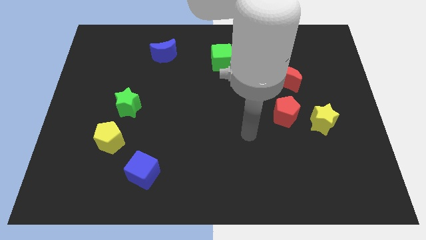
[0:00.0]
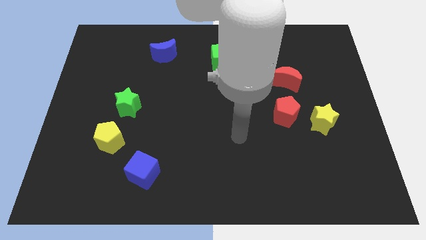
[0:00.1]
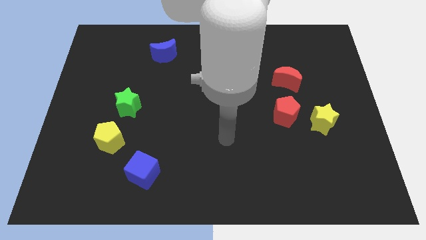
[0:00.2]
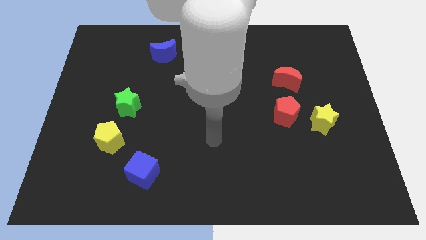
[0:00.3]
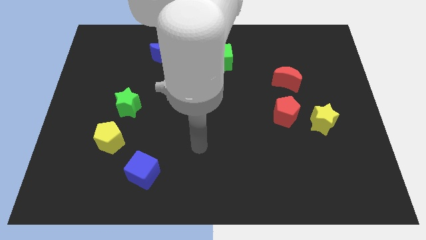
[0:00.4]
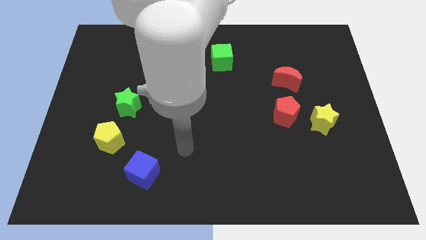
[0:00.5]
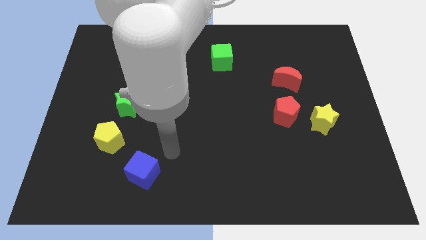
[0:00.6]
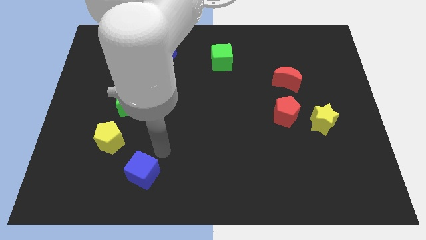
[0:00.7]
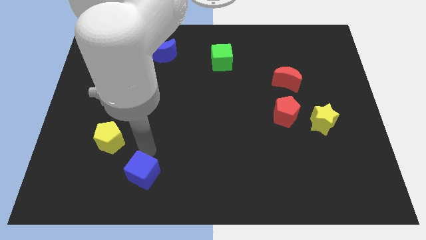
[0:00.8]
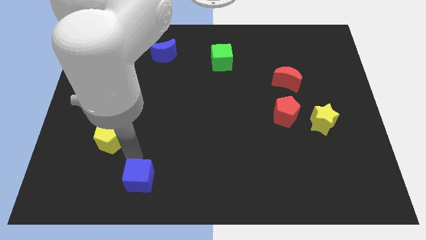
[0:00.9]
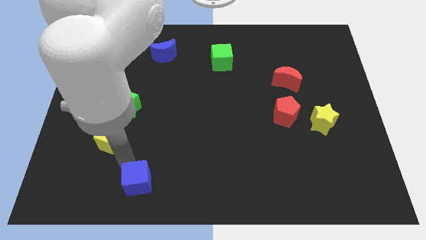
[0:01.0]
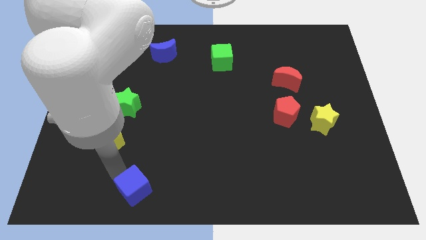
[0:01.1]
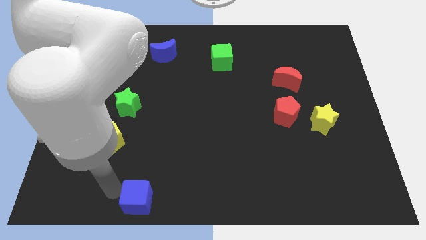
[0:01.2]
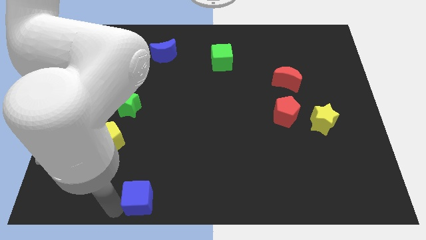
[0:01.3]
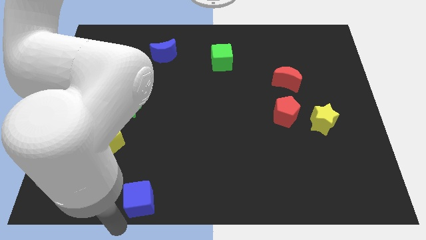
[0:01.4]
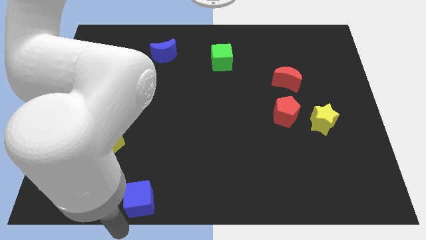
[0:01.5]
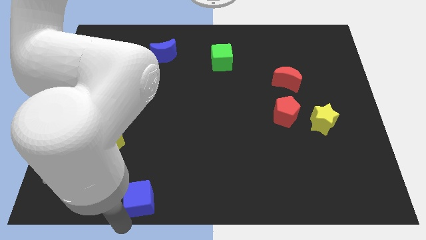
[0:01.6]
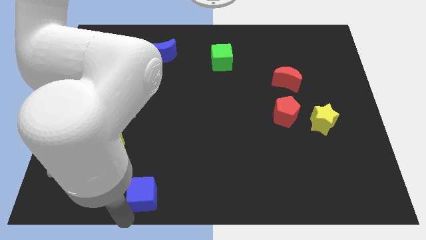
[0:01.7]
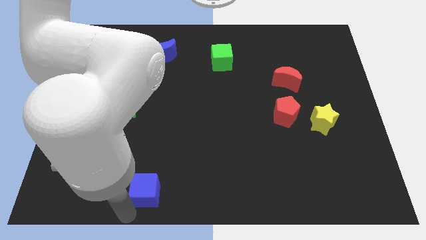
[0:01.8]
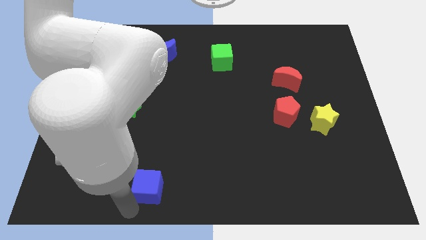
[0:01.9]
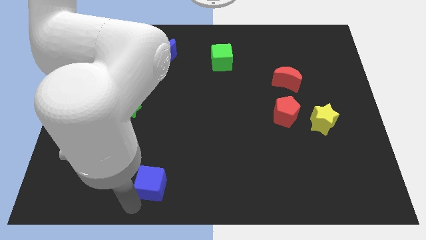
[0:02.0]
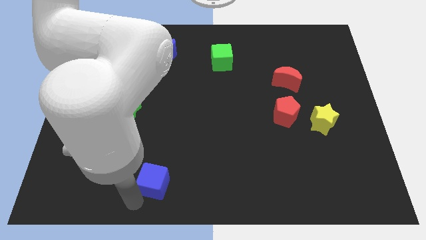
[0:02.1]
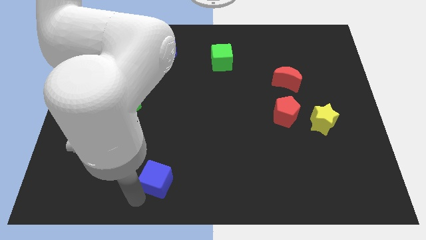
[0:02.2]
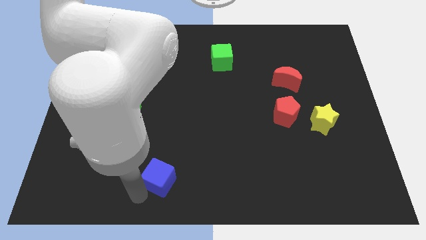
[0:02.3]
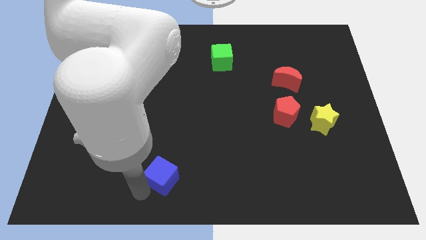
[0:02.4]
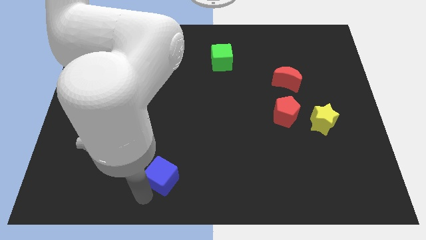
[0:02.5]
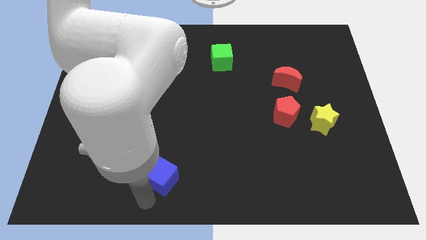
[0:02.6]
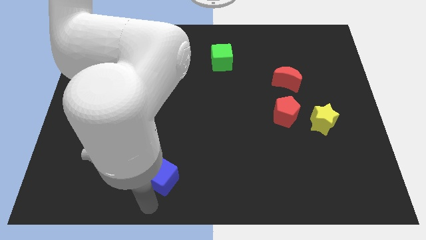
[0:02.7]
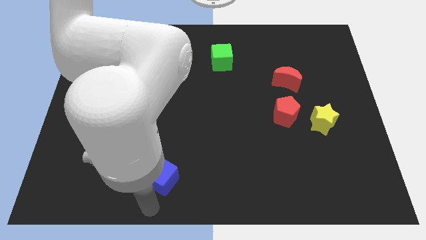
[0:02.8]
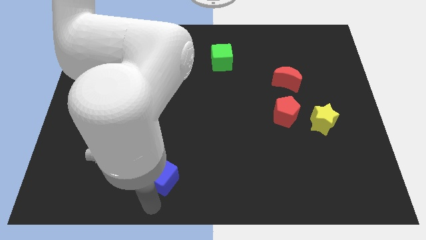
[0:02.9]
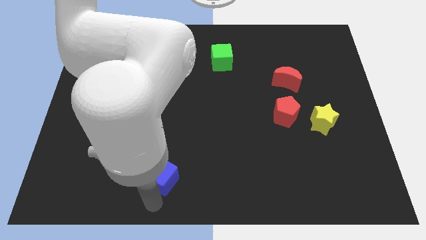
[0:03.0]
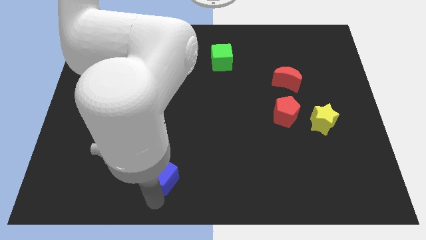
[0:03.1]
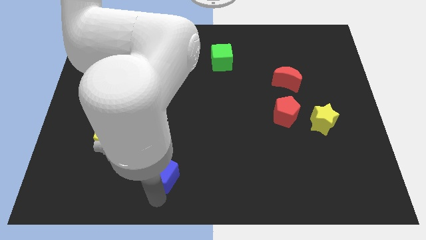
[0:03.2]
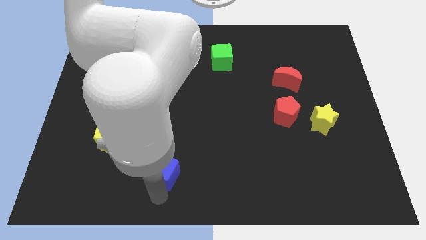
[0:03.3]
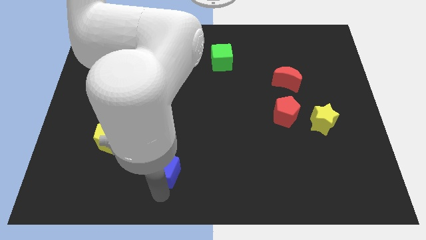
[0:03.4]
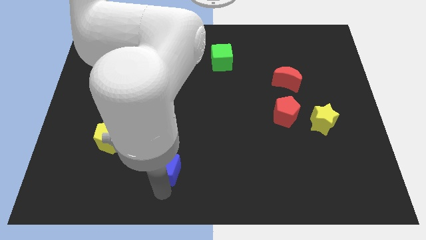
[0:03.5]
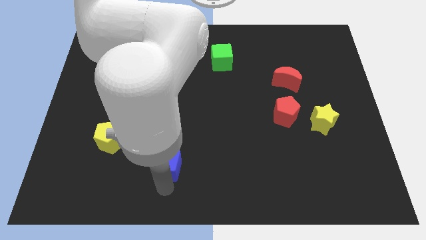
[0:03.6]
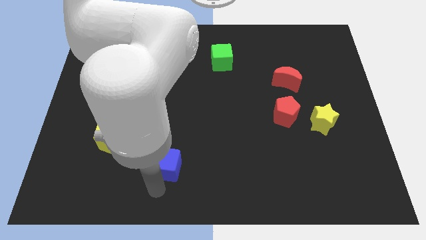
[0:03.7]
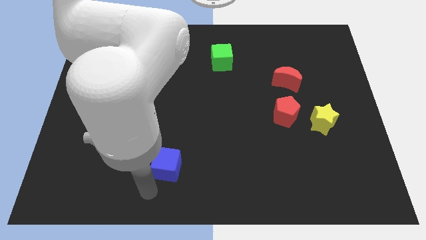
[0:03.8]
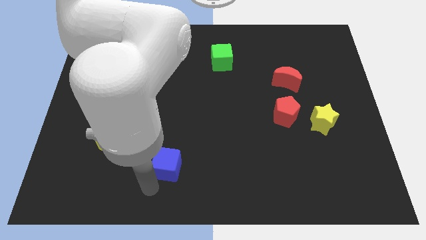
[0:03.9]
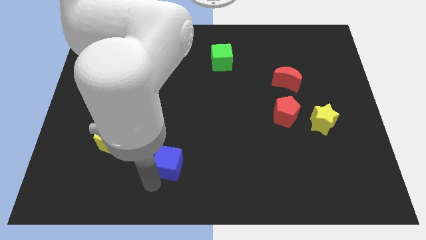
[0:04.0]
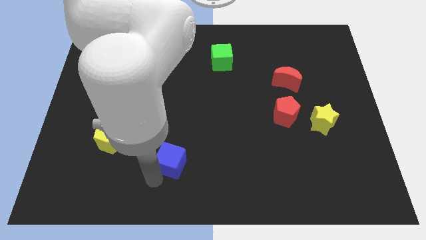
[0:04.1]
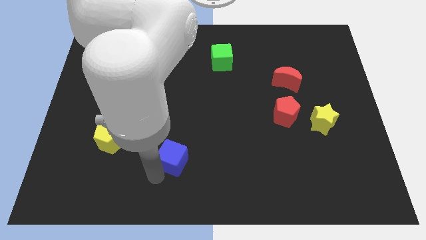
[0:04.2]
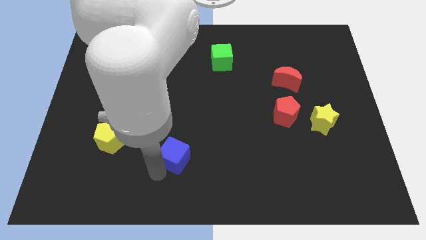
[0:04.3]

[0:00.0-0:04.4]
slightly move the blue cube upwards and right

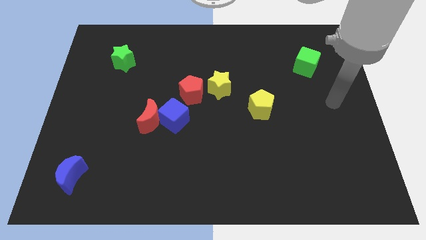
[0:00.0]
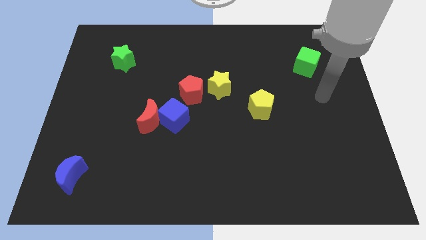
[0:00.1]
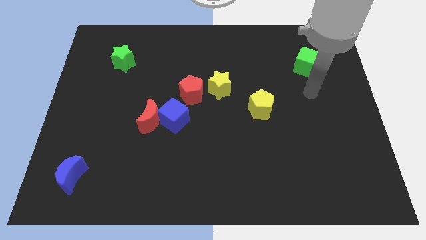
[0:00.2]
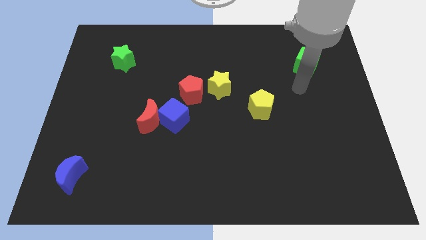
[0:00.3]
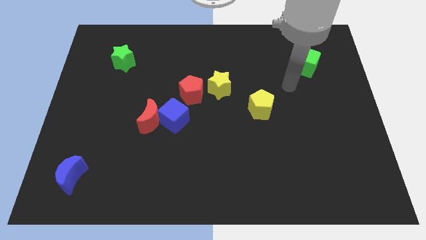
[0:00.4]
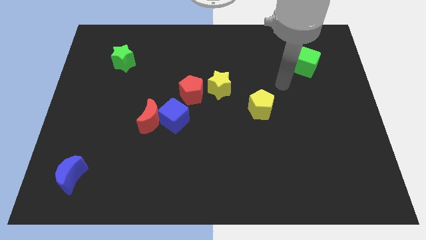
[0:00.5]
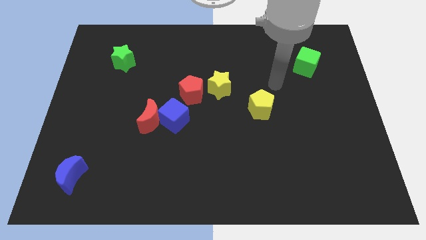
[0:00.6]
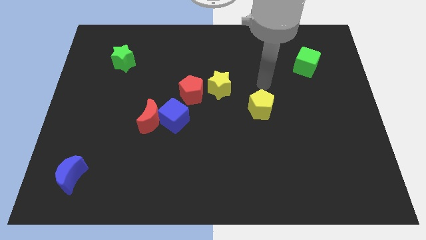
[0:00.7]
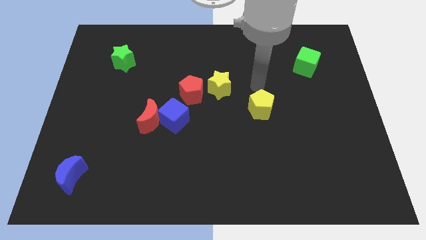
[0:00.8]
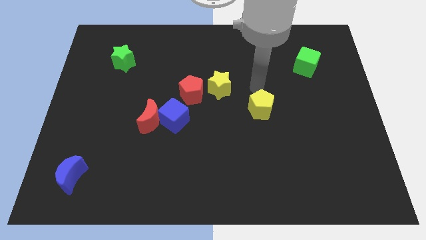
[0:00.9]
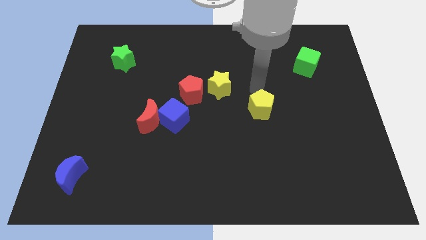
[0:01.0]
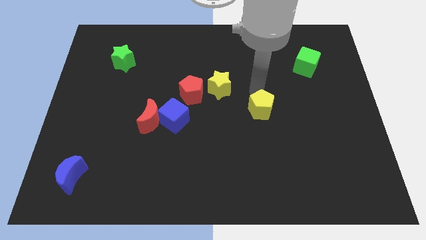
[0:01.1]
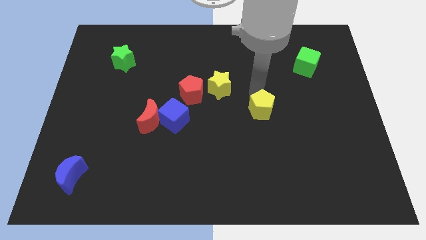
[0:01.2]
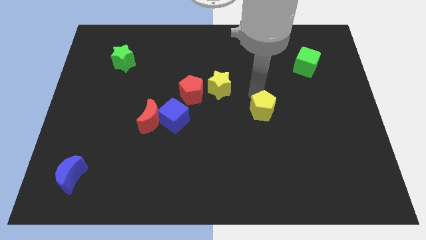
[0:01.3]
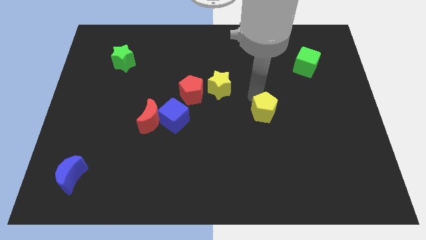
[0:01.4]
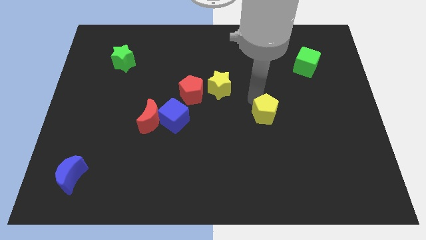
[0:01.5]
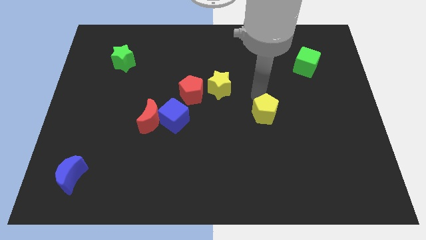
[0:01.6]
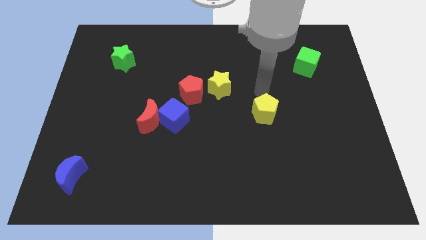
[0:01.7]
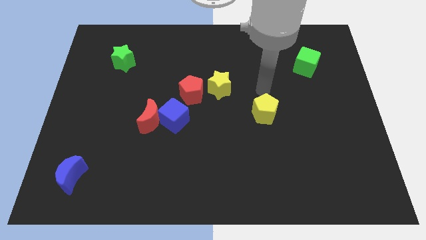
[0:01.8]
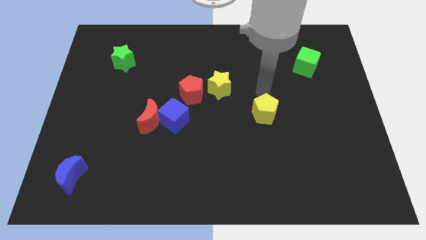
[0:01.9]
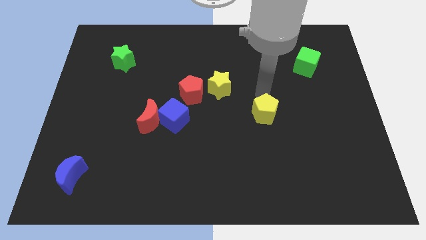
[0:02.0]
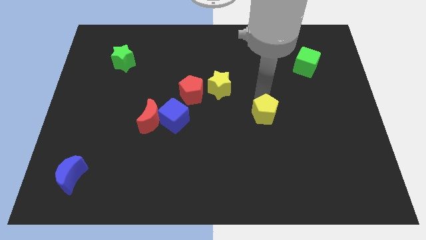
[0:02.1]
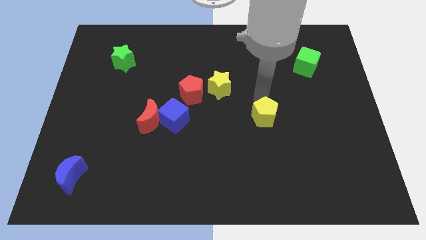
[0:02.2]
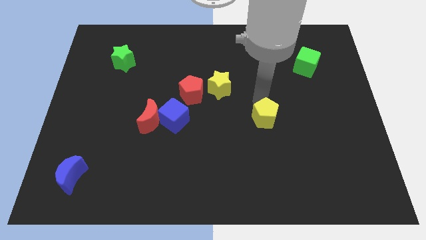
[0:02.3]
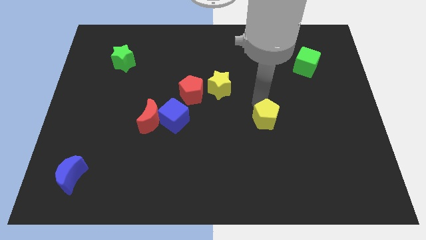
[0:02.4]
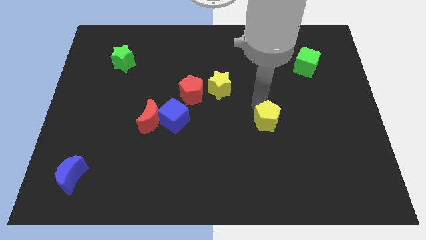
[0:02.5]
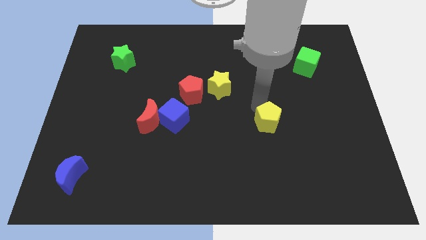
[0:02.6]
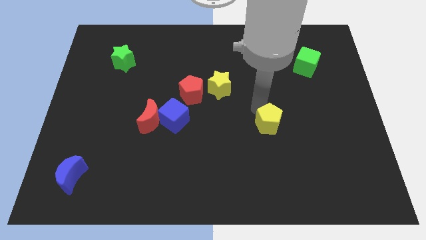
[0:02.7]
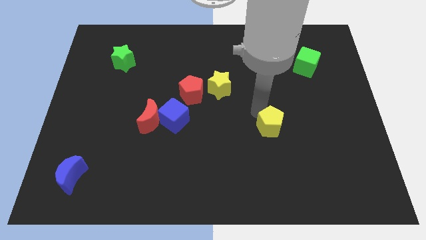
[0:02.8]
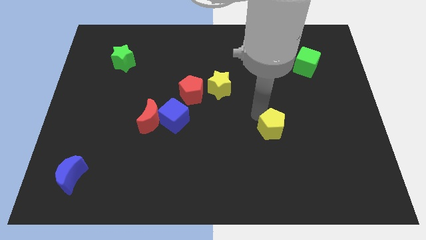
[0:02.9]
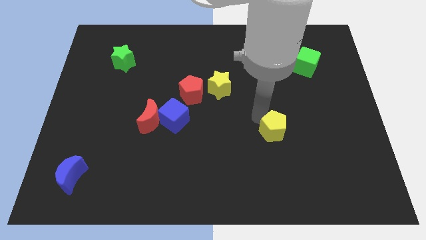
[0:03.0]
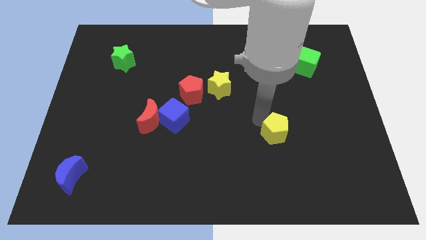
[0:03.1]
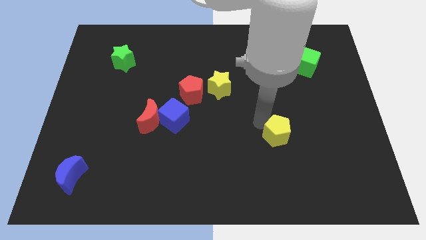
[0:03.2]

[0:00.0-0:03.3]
move the yellow pentagon slightly down
